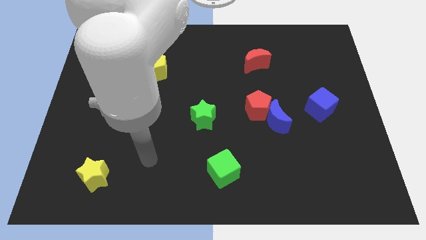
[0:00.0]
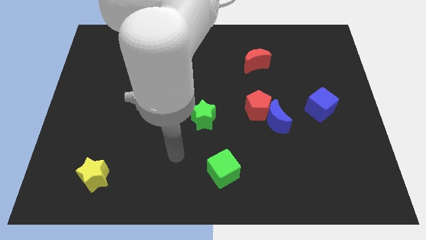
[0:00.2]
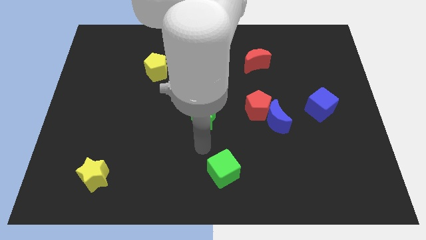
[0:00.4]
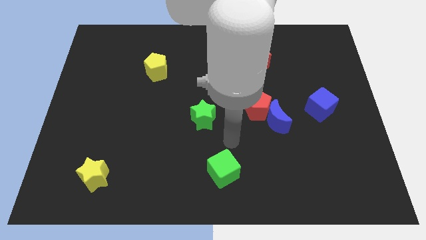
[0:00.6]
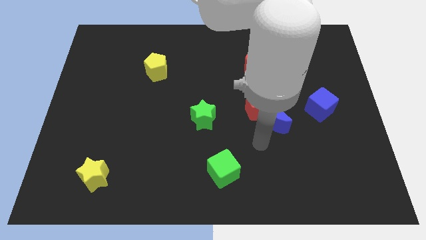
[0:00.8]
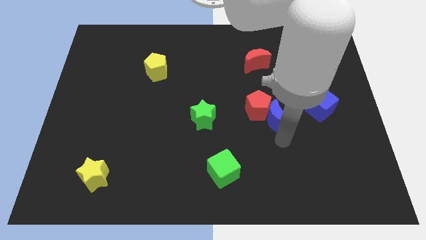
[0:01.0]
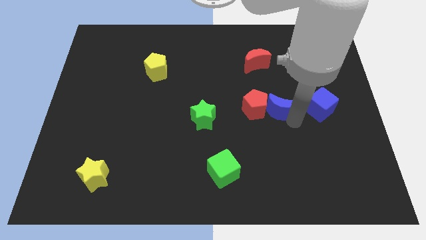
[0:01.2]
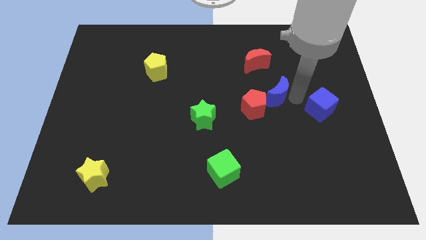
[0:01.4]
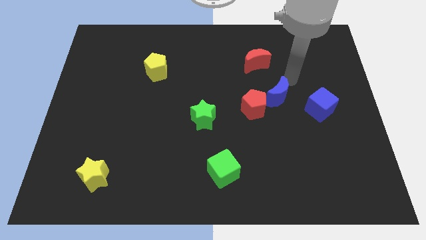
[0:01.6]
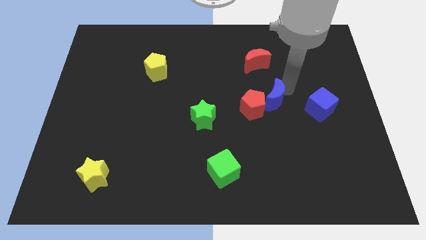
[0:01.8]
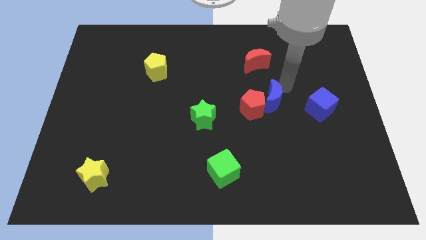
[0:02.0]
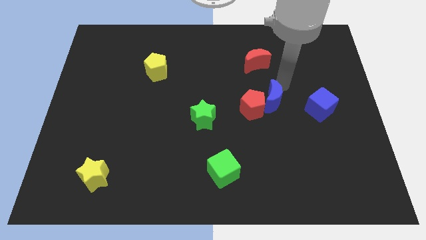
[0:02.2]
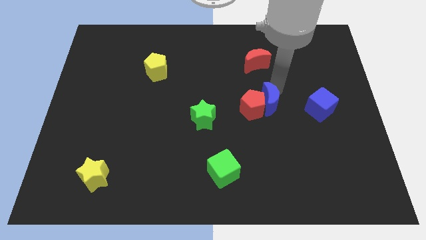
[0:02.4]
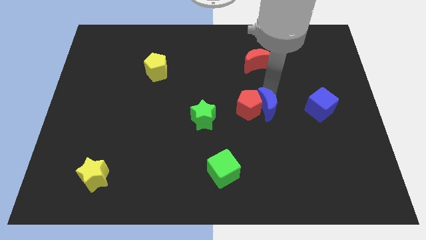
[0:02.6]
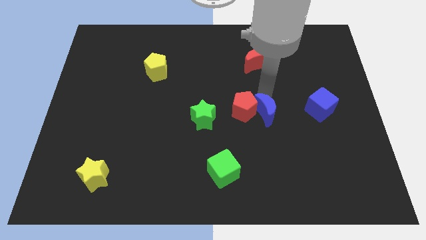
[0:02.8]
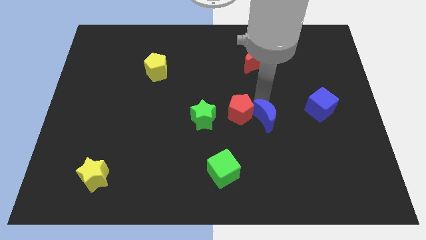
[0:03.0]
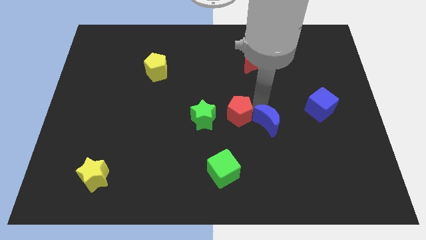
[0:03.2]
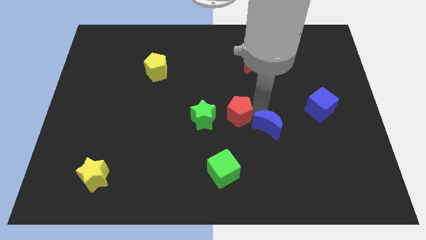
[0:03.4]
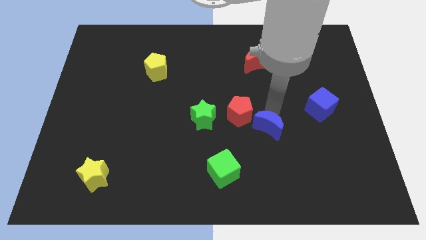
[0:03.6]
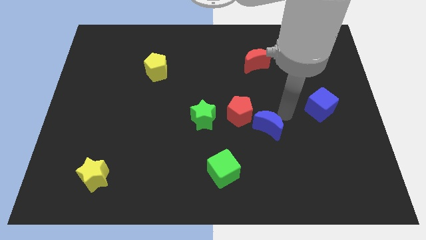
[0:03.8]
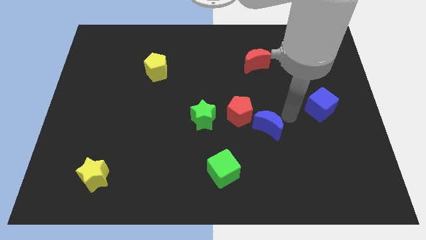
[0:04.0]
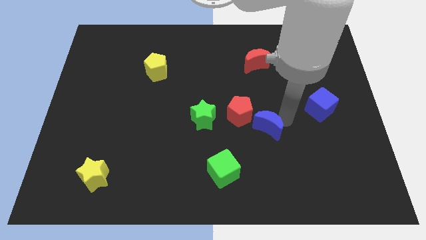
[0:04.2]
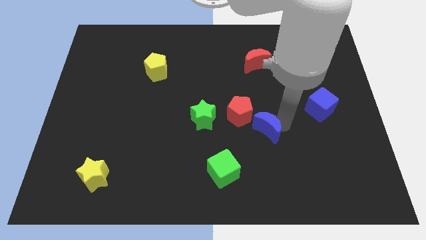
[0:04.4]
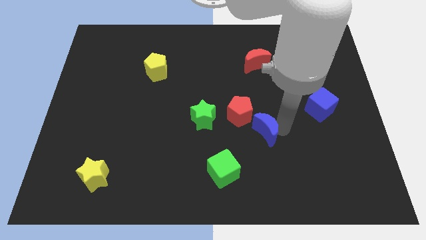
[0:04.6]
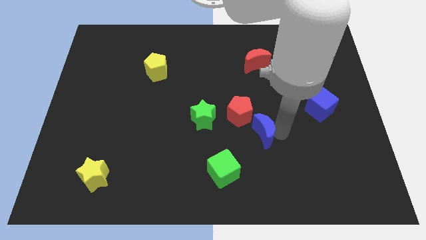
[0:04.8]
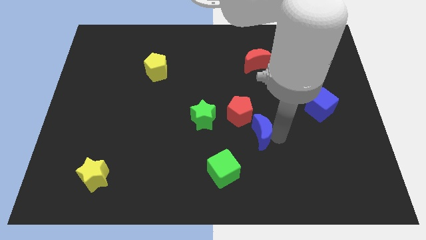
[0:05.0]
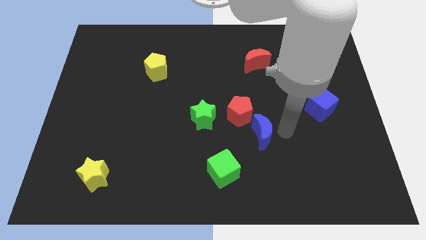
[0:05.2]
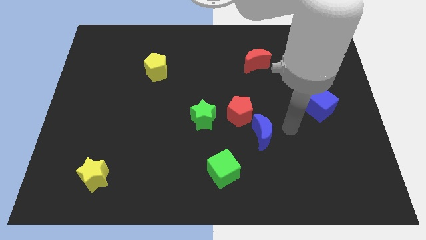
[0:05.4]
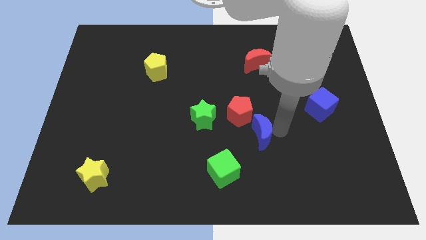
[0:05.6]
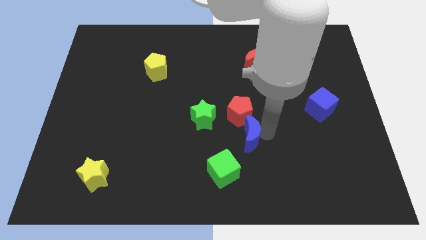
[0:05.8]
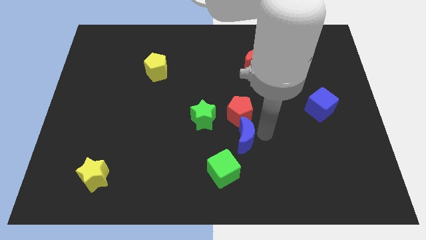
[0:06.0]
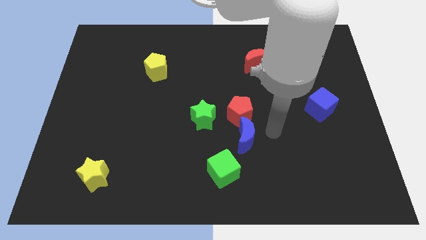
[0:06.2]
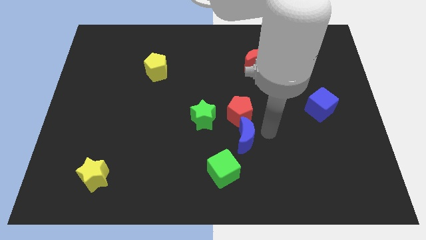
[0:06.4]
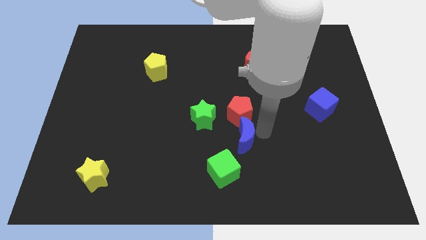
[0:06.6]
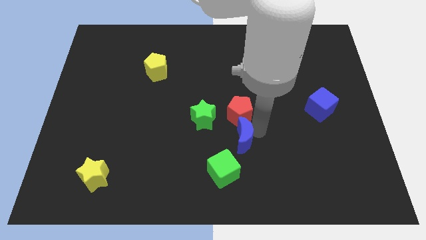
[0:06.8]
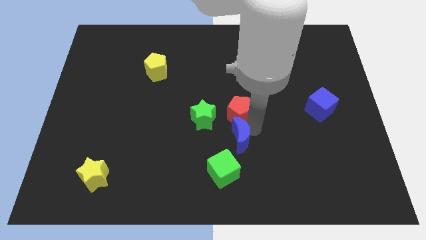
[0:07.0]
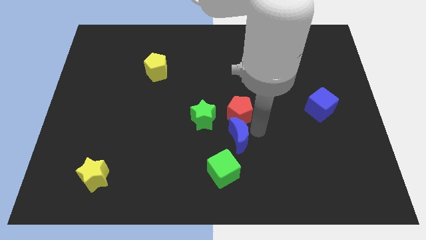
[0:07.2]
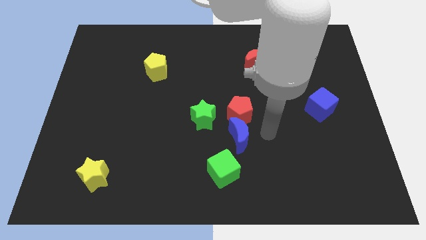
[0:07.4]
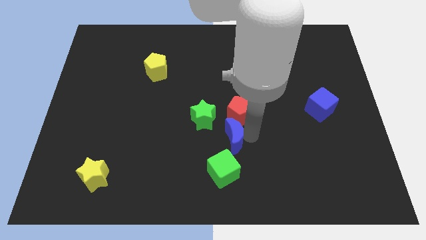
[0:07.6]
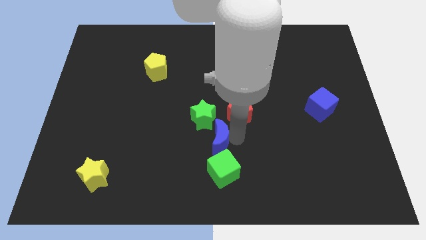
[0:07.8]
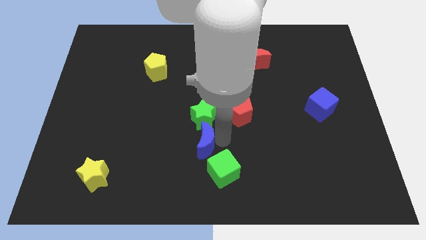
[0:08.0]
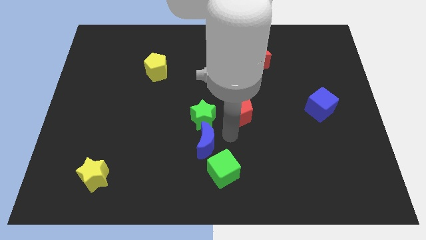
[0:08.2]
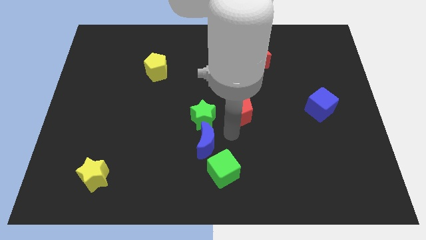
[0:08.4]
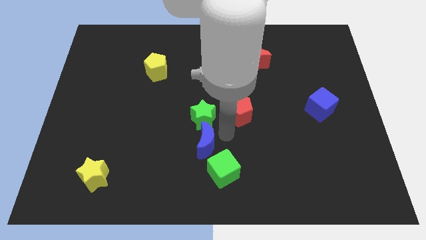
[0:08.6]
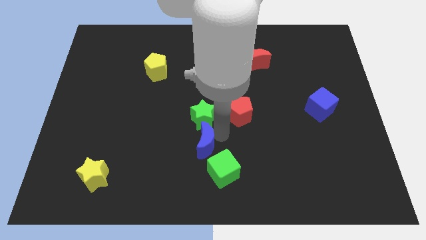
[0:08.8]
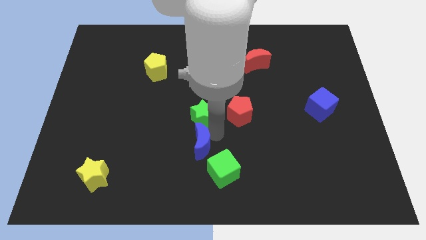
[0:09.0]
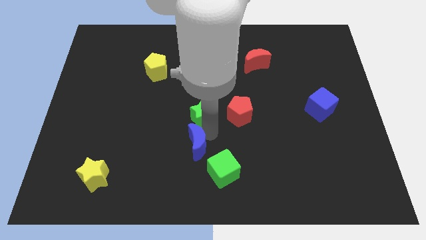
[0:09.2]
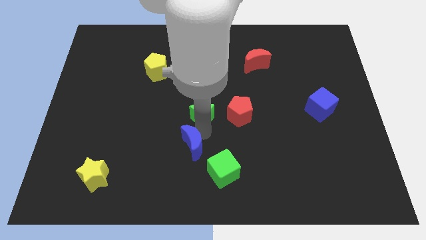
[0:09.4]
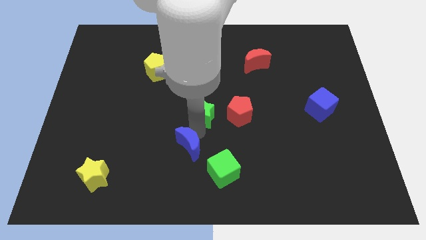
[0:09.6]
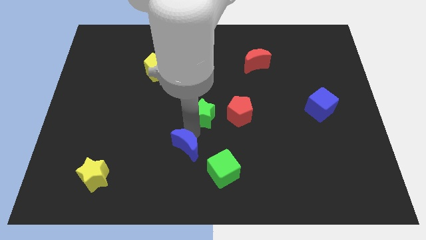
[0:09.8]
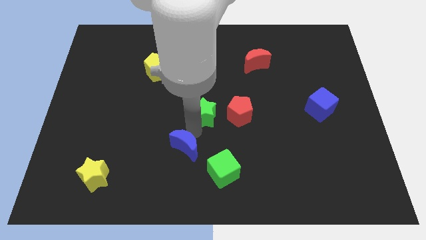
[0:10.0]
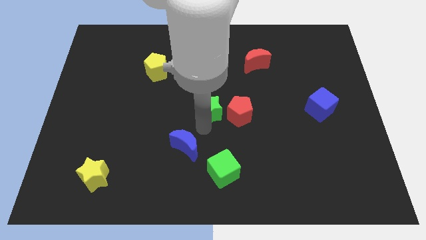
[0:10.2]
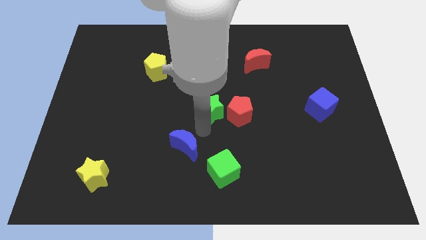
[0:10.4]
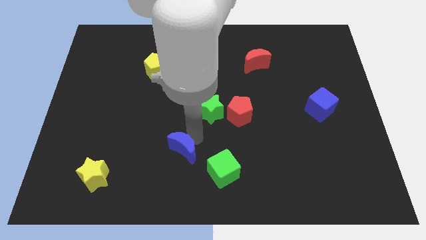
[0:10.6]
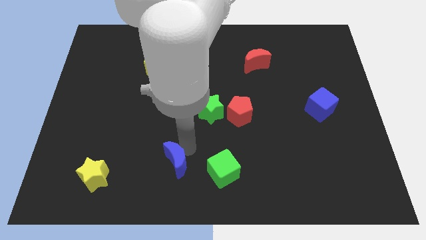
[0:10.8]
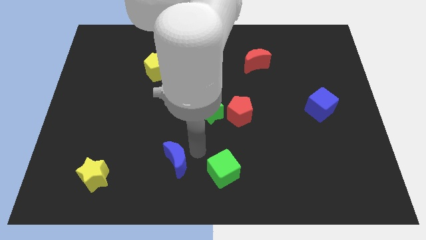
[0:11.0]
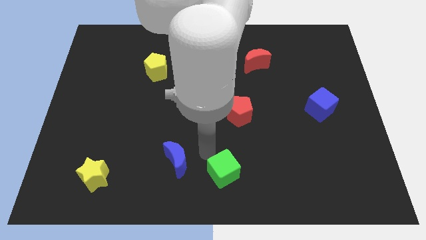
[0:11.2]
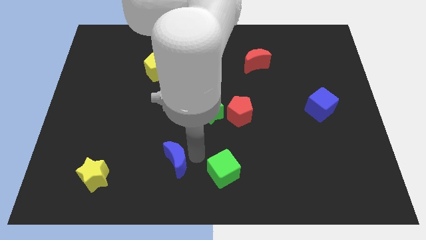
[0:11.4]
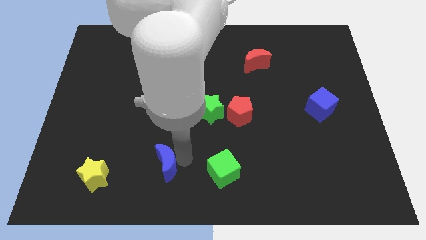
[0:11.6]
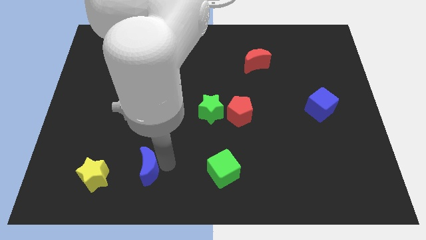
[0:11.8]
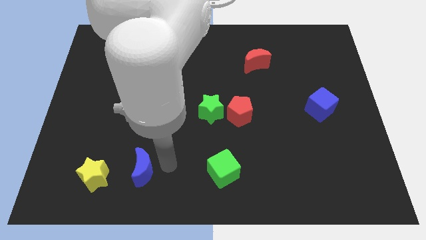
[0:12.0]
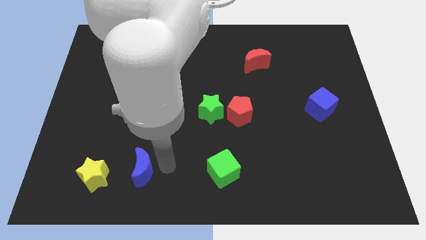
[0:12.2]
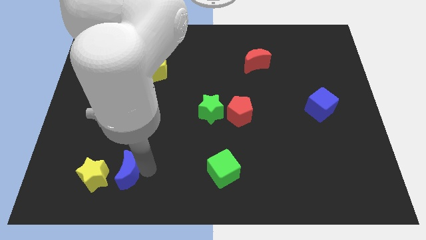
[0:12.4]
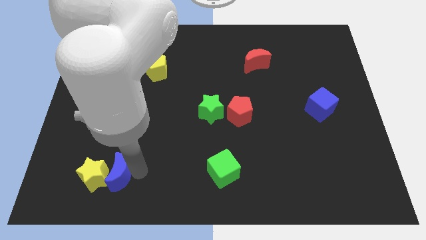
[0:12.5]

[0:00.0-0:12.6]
put the blue moon to the yellow star

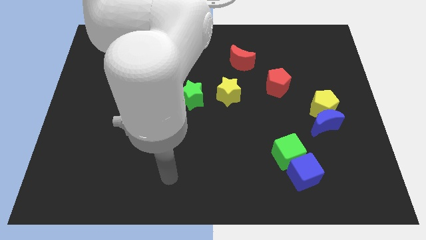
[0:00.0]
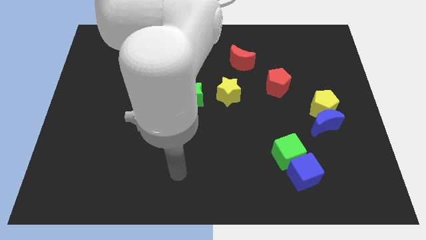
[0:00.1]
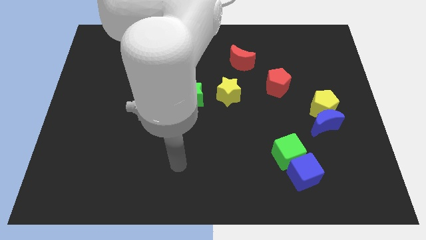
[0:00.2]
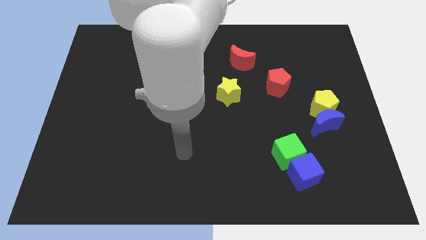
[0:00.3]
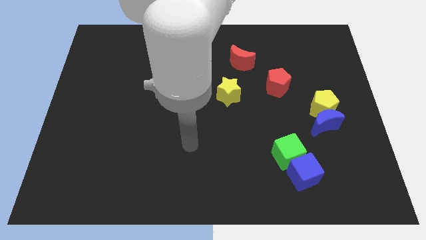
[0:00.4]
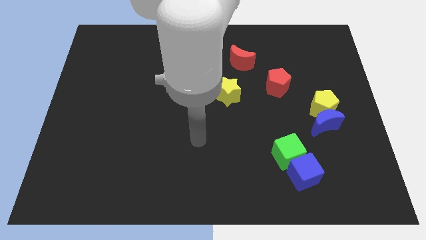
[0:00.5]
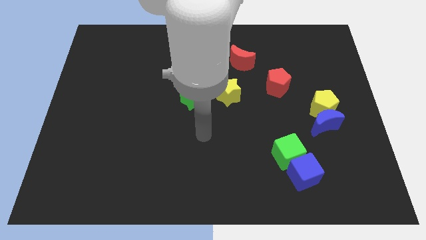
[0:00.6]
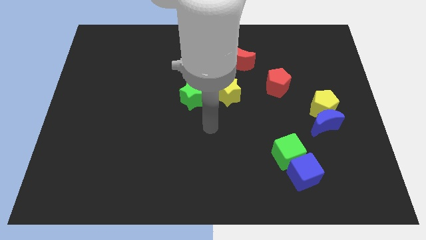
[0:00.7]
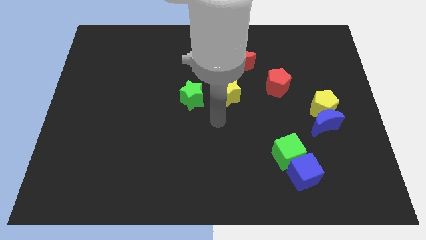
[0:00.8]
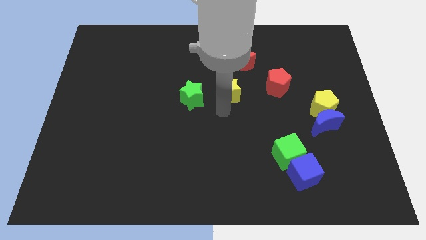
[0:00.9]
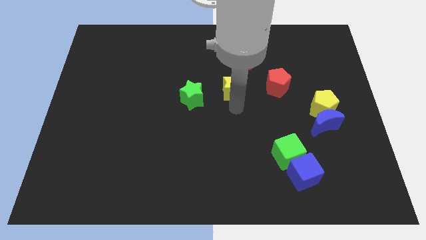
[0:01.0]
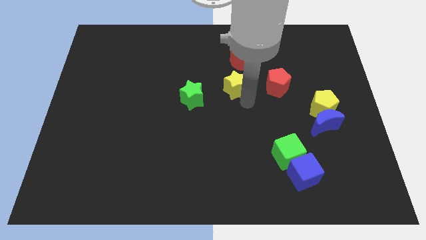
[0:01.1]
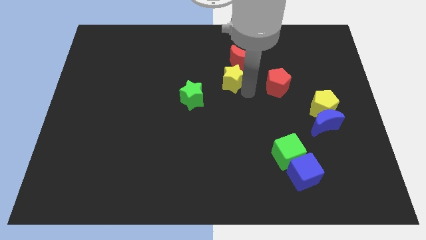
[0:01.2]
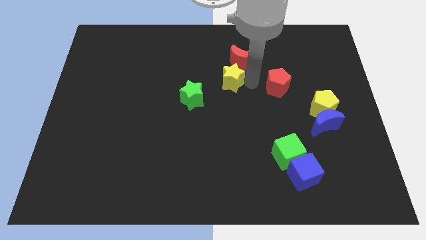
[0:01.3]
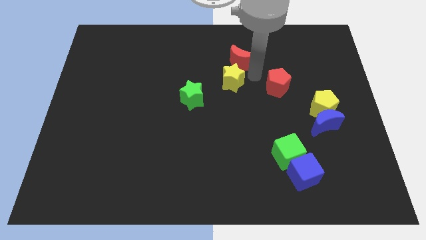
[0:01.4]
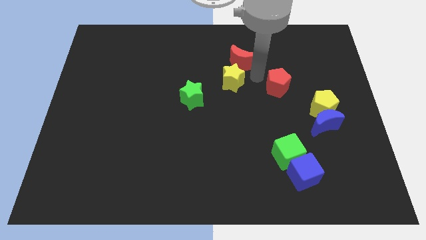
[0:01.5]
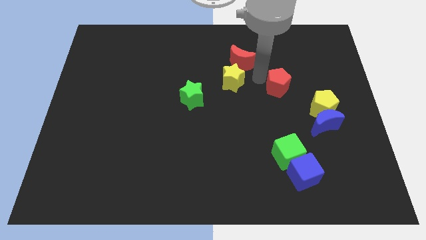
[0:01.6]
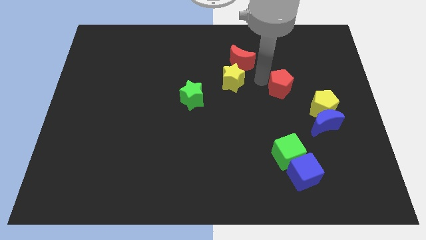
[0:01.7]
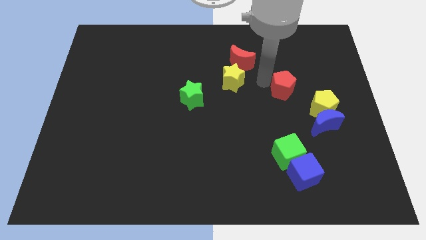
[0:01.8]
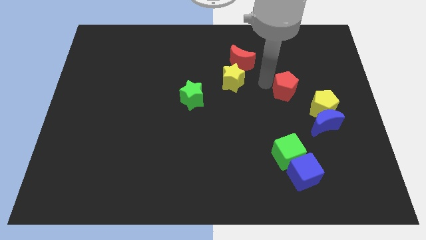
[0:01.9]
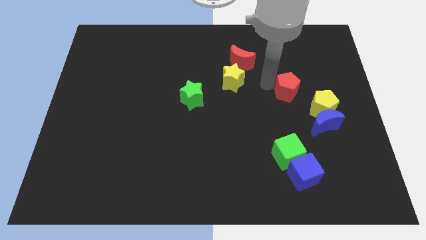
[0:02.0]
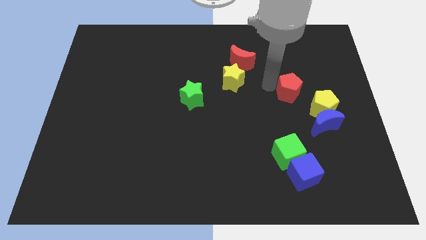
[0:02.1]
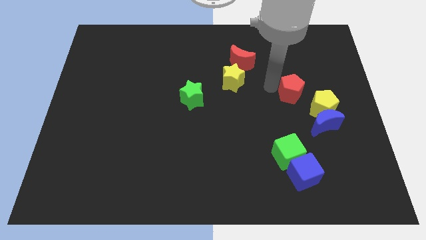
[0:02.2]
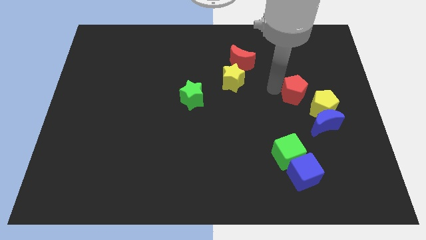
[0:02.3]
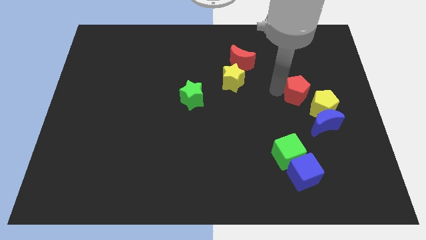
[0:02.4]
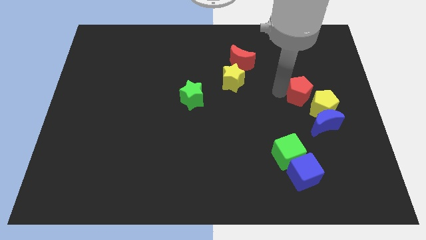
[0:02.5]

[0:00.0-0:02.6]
push the red pentagon close to the yellow pentagon
